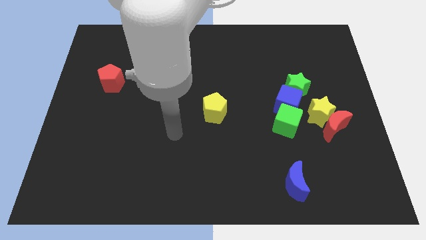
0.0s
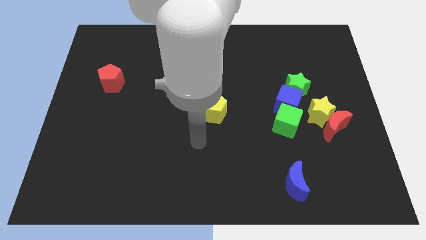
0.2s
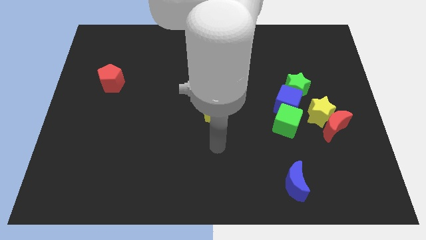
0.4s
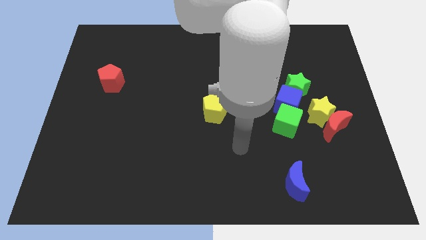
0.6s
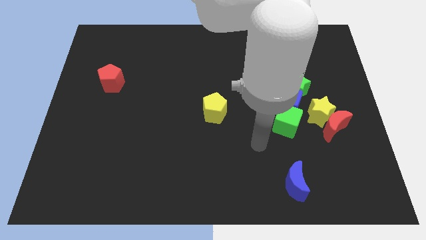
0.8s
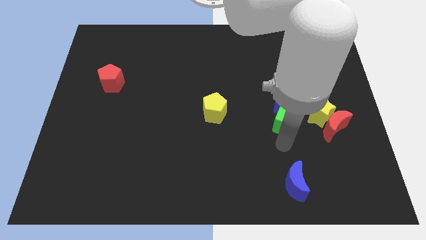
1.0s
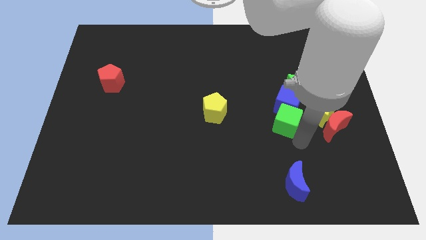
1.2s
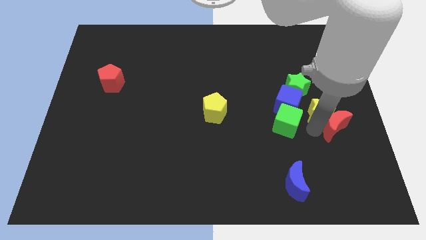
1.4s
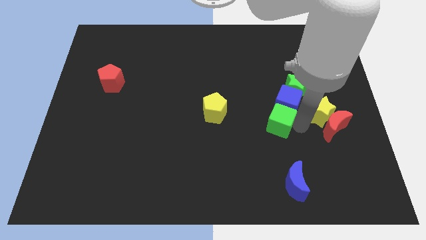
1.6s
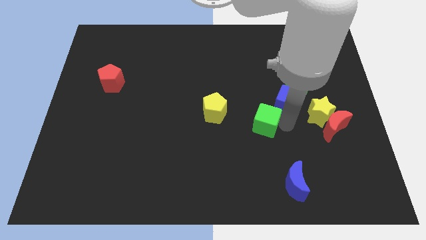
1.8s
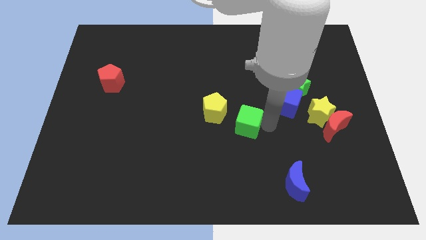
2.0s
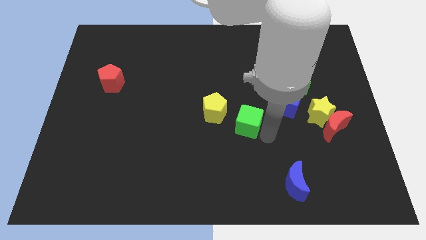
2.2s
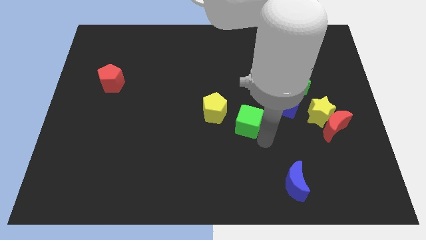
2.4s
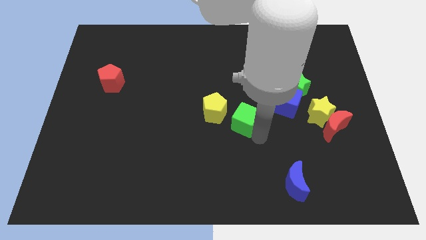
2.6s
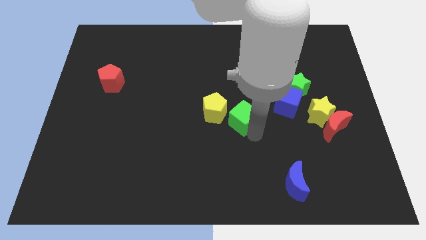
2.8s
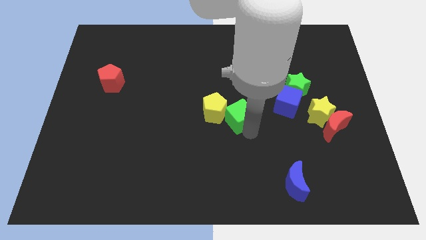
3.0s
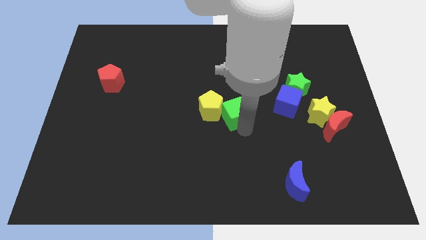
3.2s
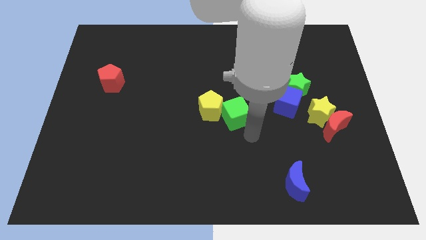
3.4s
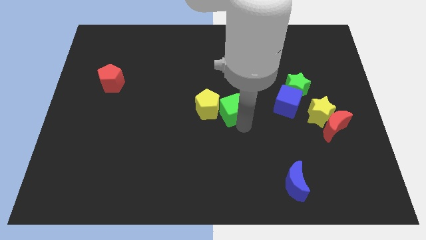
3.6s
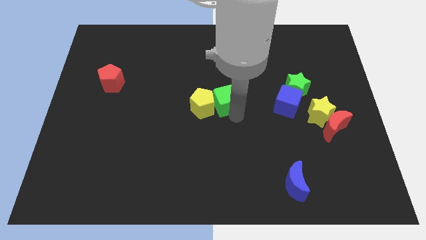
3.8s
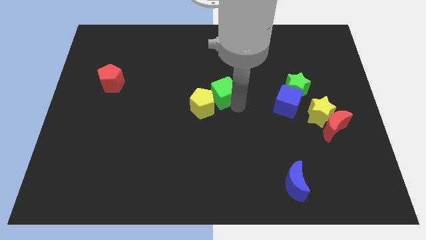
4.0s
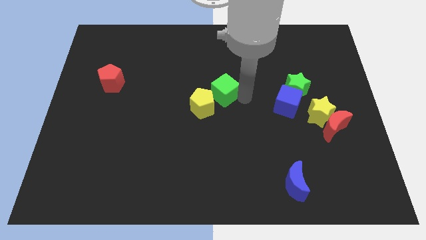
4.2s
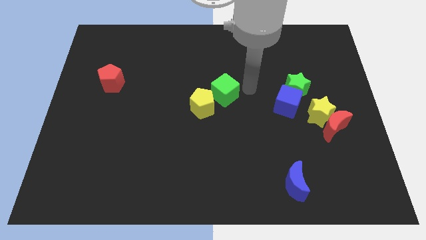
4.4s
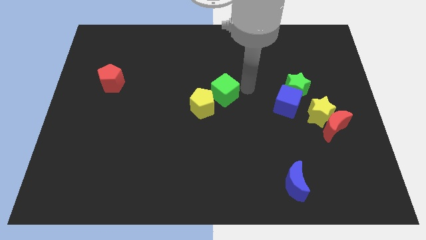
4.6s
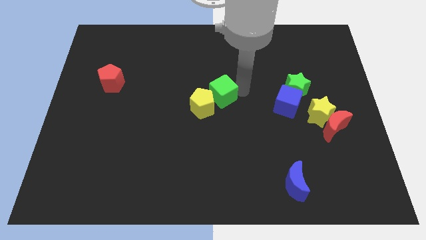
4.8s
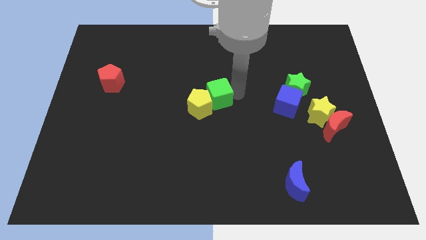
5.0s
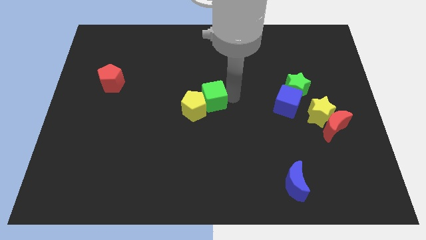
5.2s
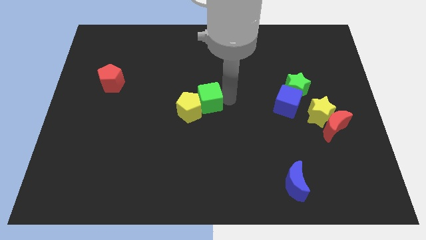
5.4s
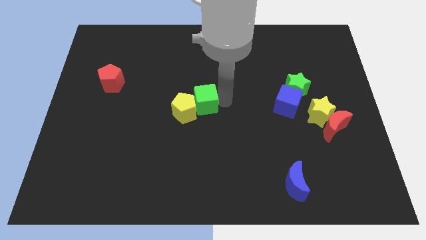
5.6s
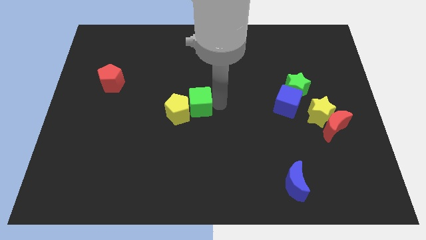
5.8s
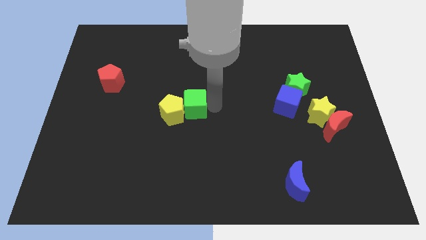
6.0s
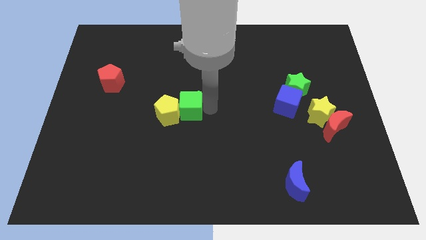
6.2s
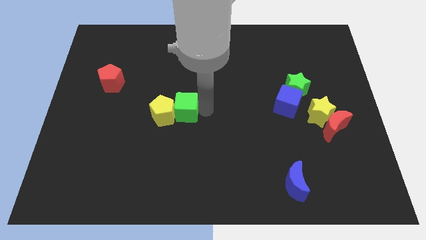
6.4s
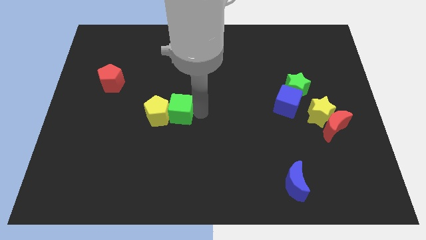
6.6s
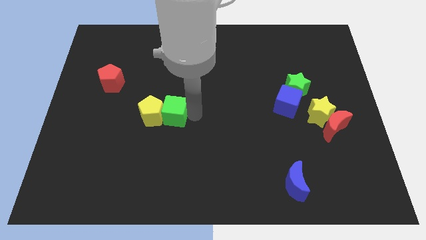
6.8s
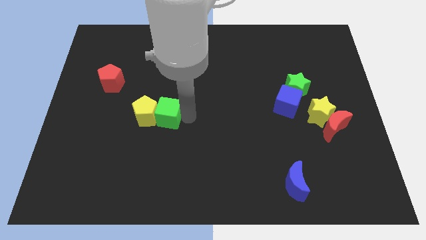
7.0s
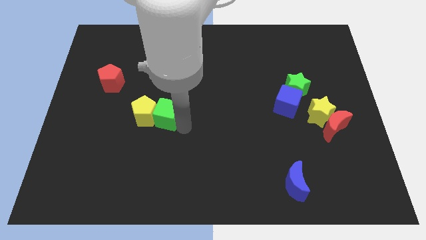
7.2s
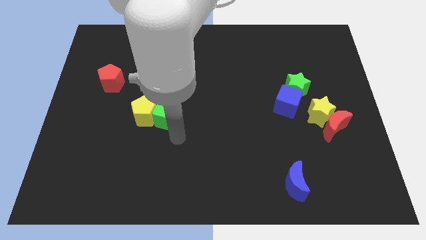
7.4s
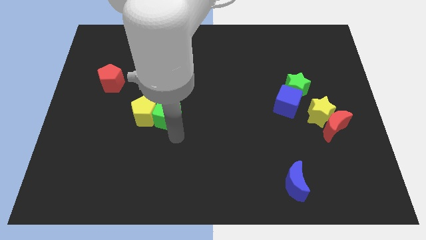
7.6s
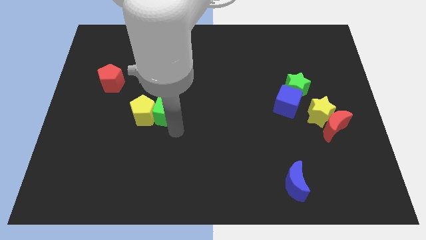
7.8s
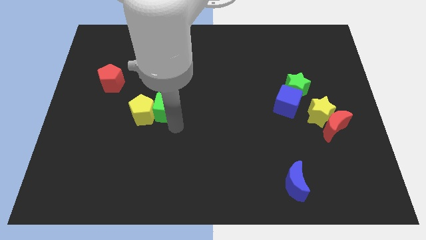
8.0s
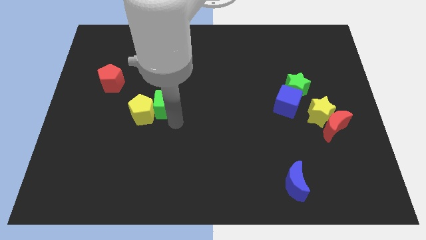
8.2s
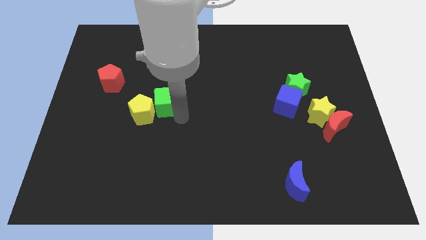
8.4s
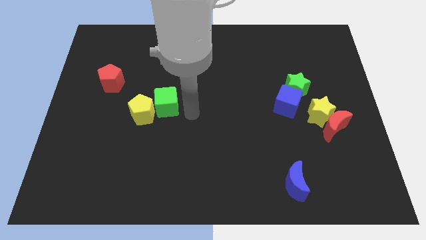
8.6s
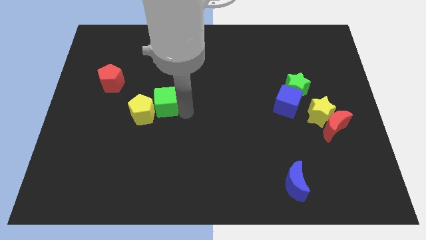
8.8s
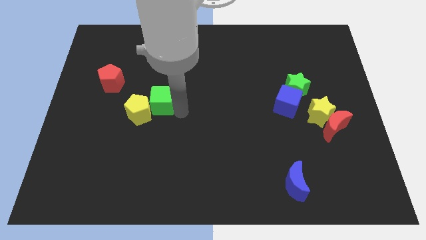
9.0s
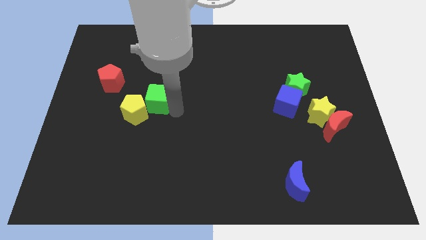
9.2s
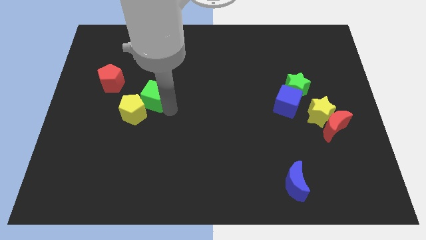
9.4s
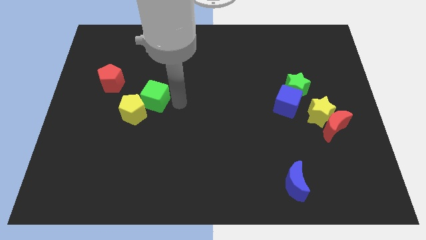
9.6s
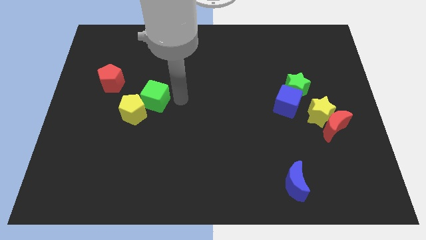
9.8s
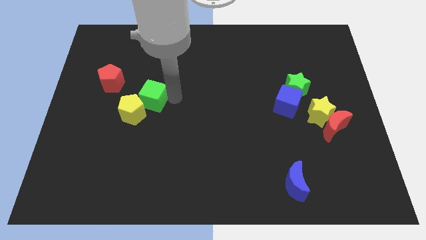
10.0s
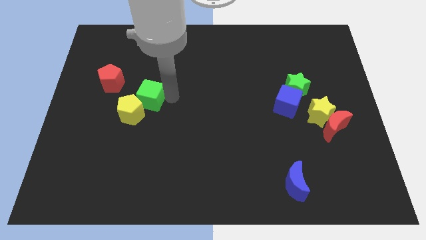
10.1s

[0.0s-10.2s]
move the green cube diagonally down and to the right of the red pentagon
